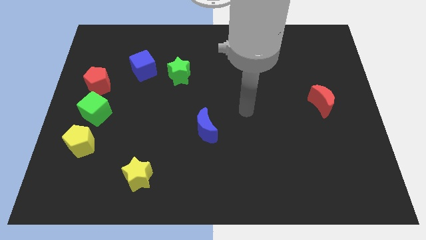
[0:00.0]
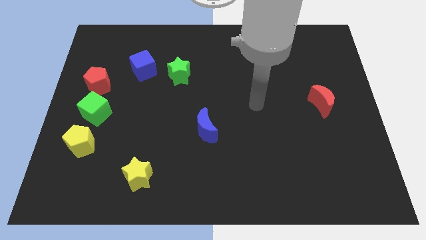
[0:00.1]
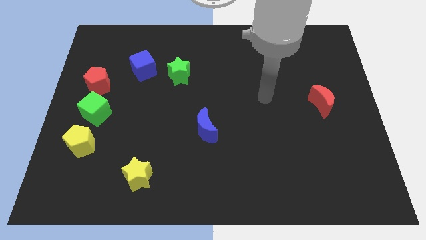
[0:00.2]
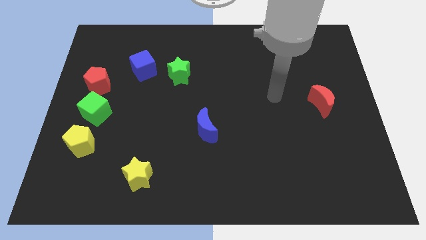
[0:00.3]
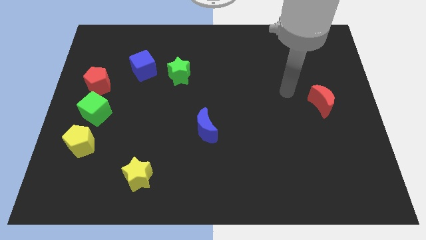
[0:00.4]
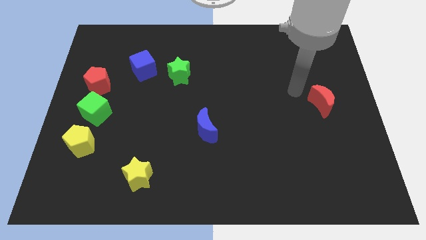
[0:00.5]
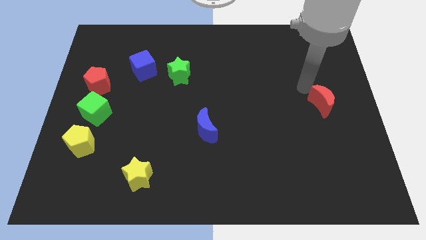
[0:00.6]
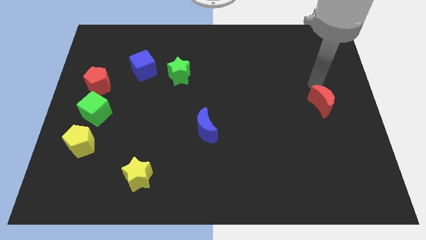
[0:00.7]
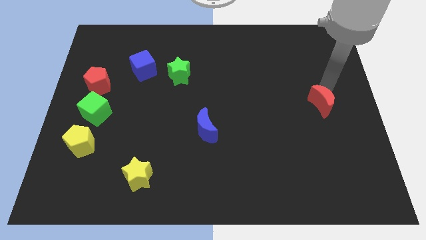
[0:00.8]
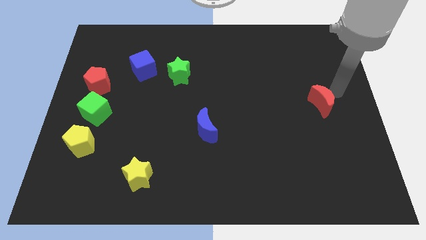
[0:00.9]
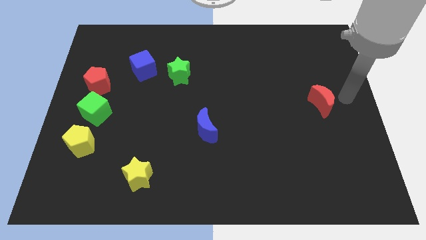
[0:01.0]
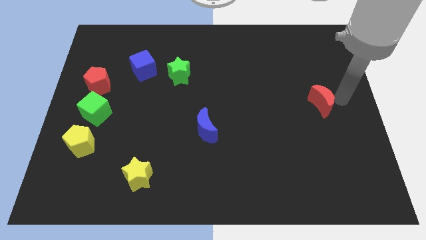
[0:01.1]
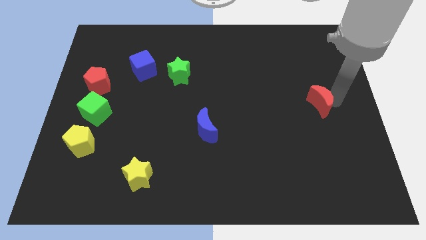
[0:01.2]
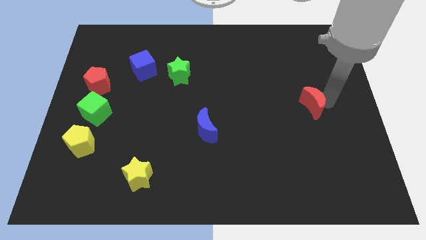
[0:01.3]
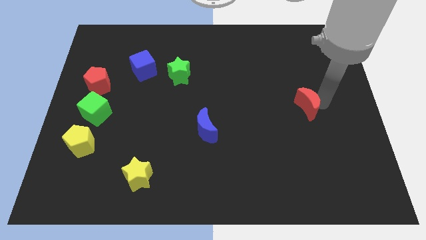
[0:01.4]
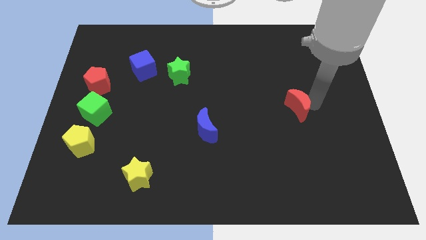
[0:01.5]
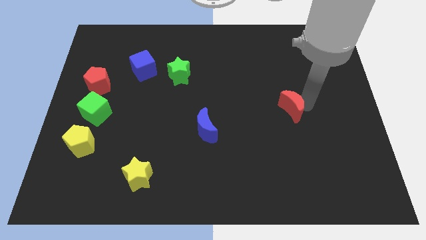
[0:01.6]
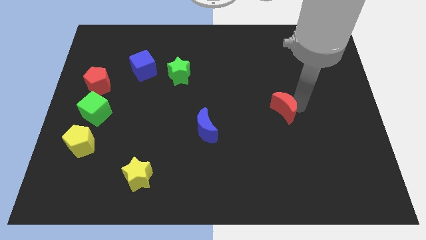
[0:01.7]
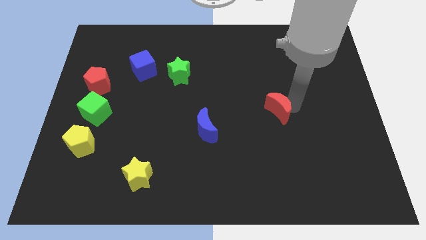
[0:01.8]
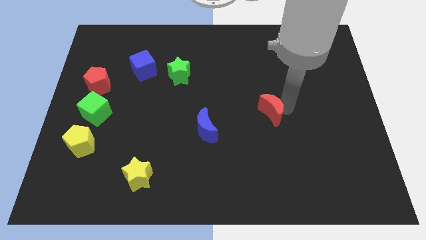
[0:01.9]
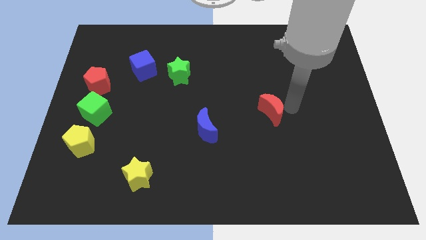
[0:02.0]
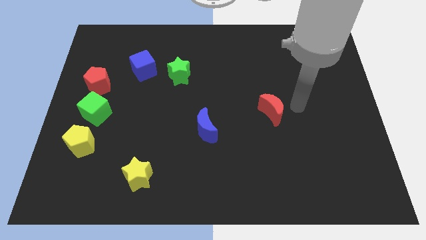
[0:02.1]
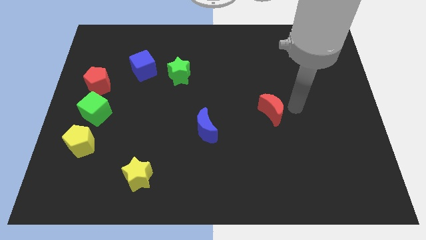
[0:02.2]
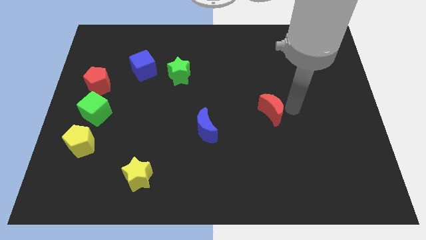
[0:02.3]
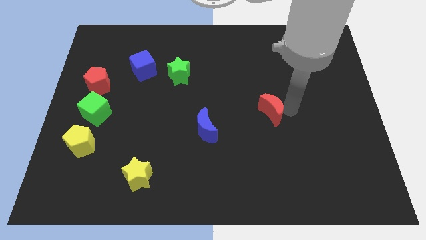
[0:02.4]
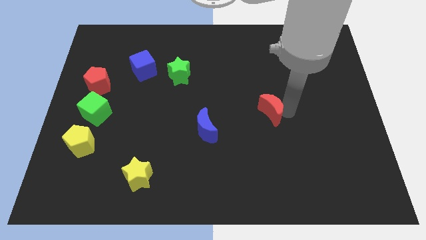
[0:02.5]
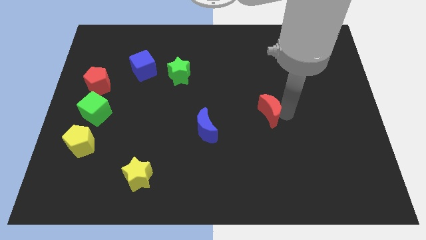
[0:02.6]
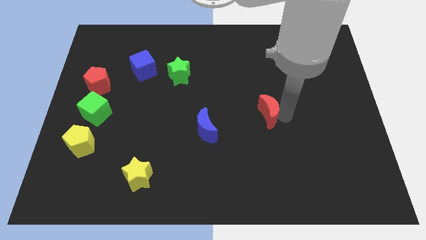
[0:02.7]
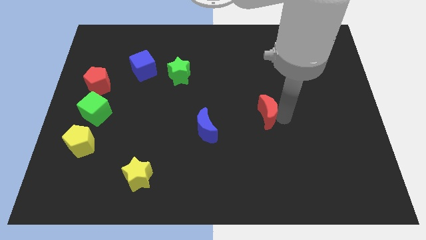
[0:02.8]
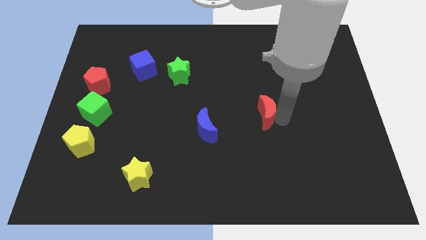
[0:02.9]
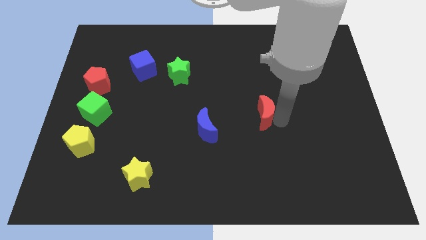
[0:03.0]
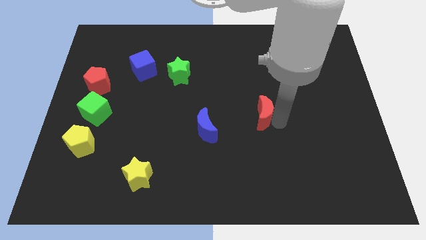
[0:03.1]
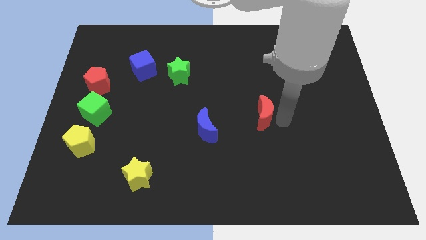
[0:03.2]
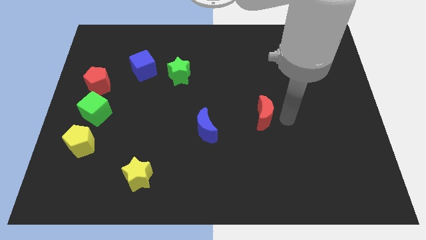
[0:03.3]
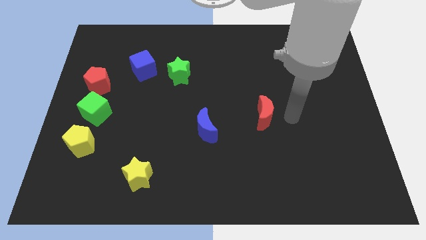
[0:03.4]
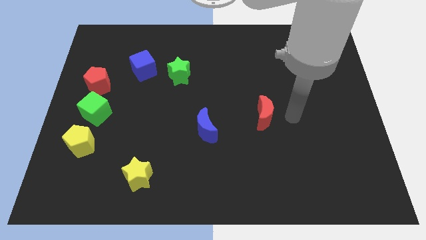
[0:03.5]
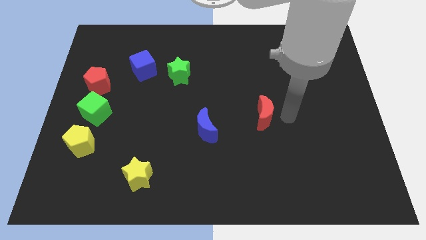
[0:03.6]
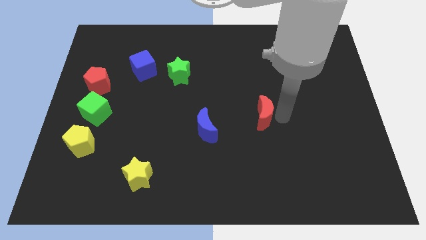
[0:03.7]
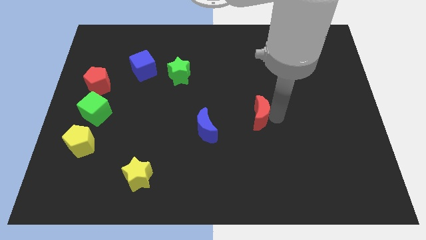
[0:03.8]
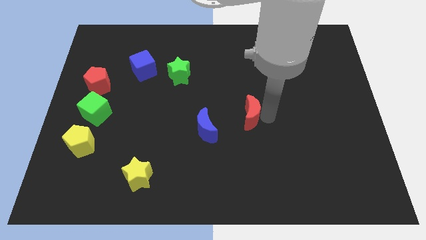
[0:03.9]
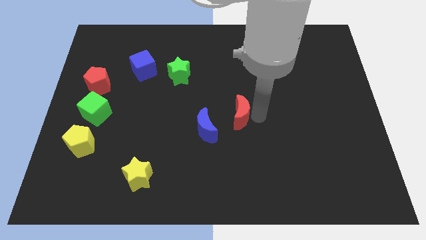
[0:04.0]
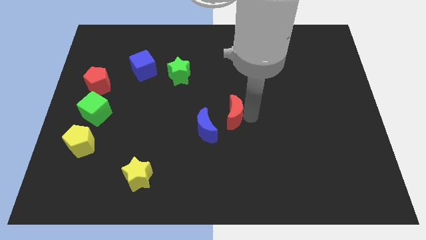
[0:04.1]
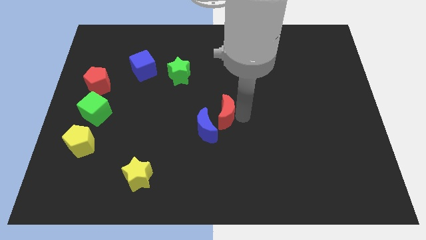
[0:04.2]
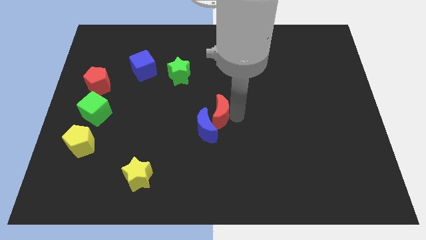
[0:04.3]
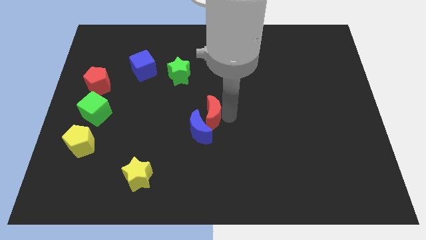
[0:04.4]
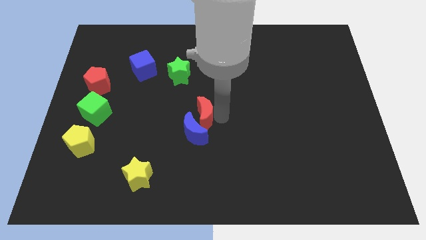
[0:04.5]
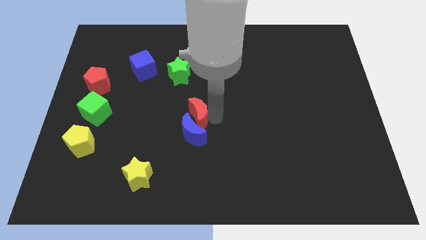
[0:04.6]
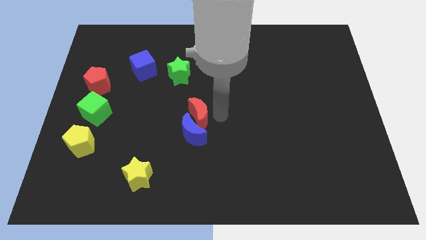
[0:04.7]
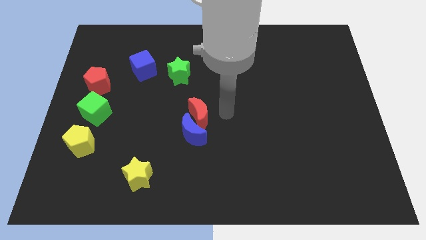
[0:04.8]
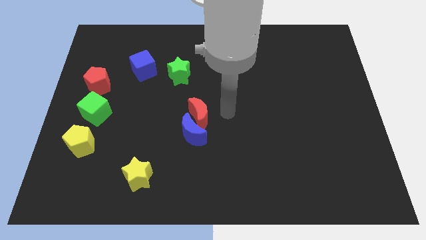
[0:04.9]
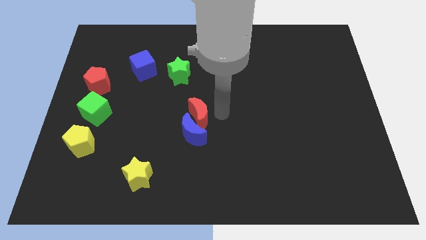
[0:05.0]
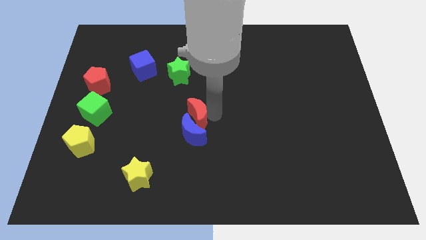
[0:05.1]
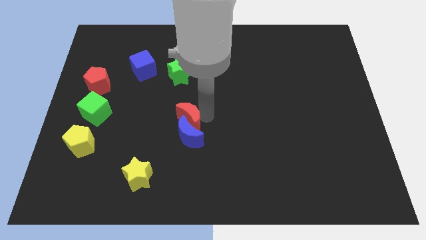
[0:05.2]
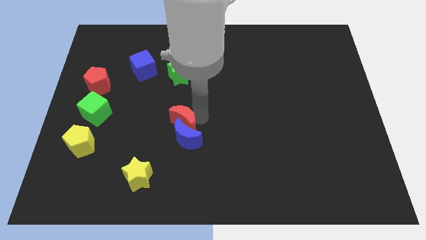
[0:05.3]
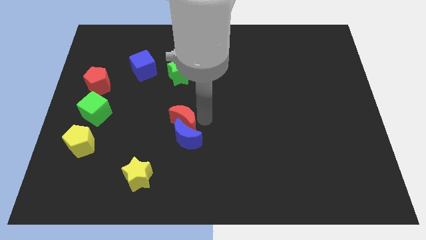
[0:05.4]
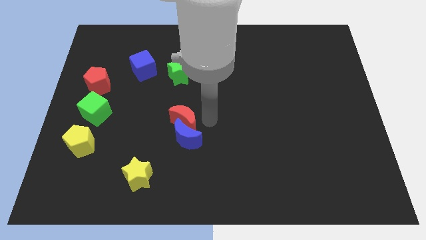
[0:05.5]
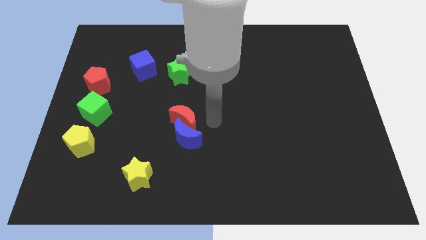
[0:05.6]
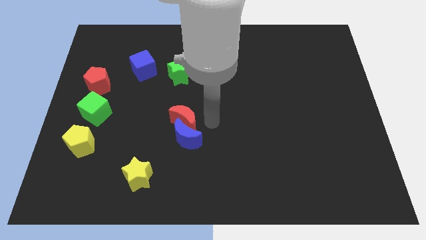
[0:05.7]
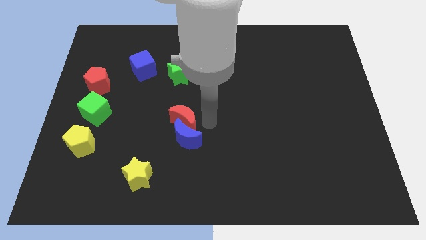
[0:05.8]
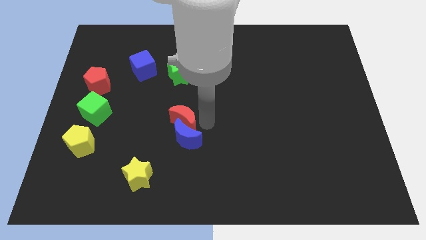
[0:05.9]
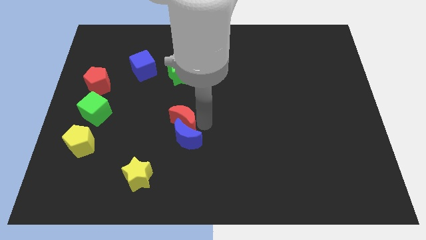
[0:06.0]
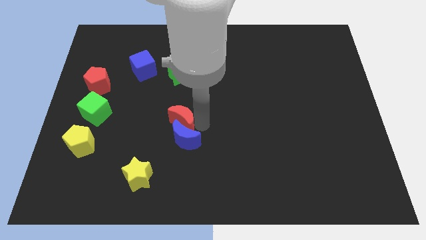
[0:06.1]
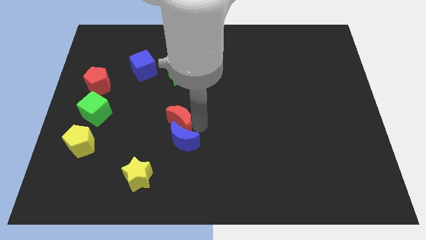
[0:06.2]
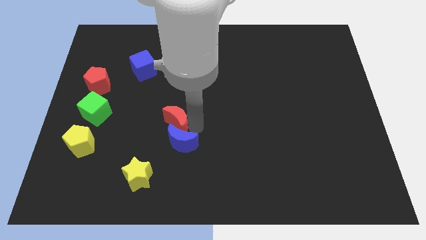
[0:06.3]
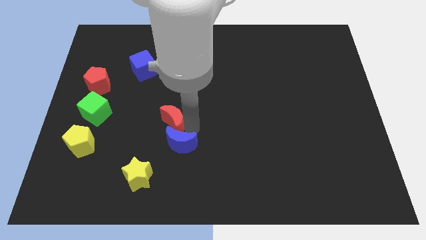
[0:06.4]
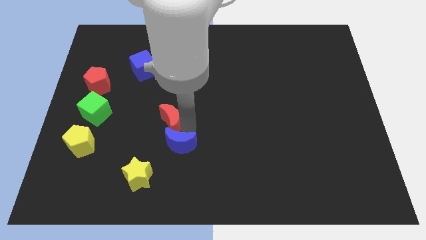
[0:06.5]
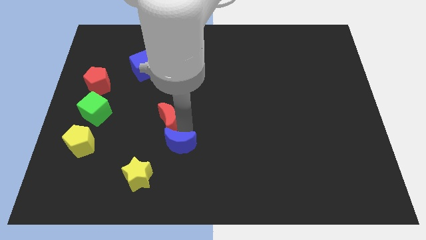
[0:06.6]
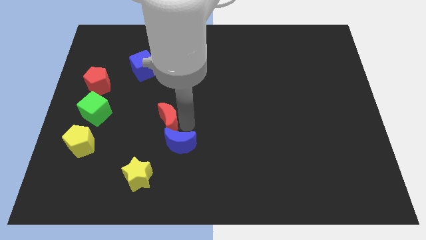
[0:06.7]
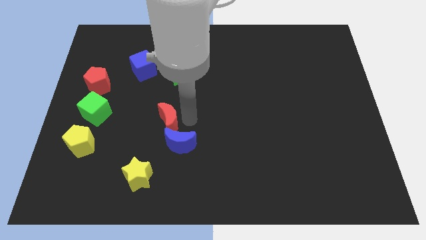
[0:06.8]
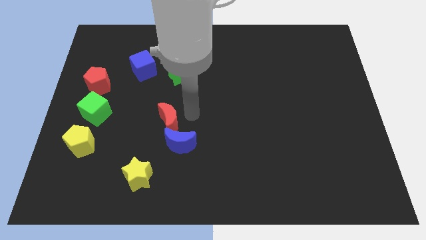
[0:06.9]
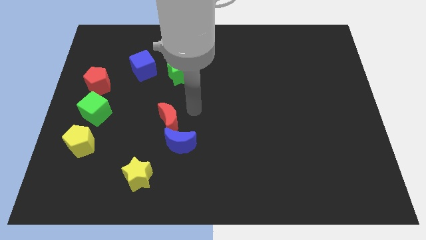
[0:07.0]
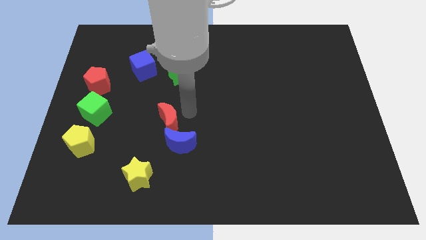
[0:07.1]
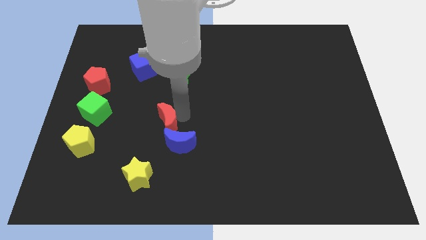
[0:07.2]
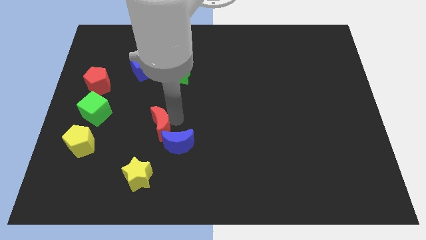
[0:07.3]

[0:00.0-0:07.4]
move the red moon to the top of the yellow star
